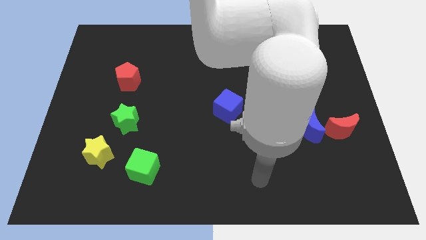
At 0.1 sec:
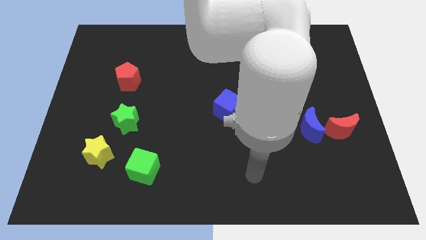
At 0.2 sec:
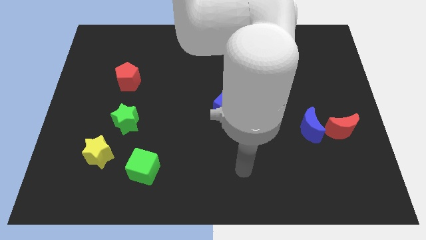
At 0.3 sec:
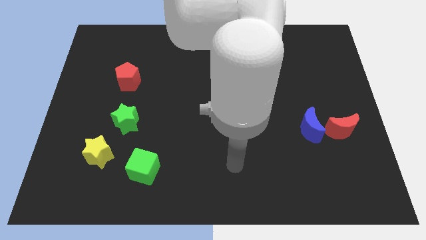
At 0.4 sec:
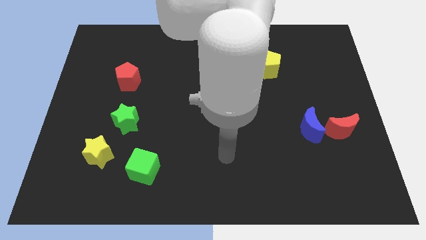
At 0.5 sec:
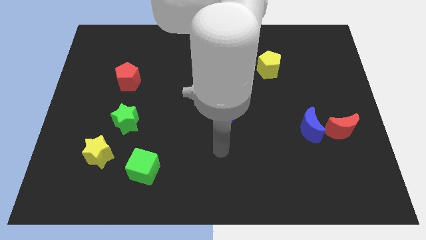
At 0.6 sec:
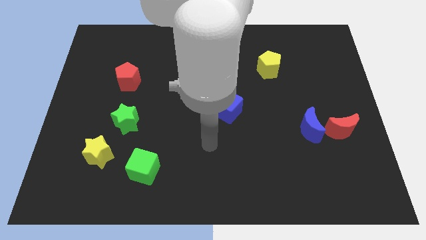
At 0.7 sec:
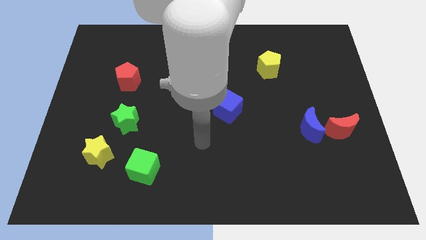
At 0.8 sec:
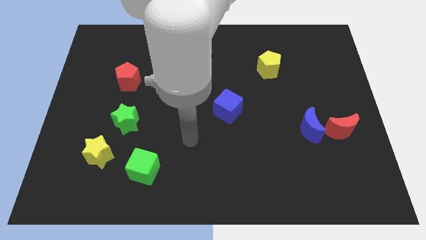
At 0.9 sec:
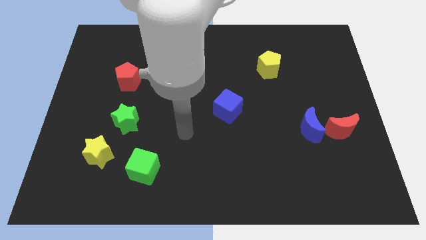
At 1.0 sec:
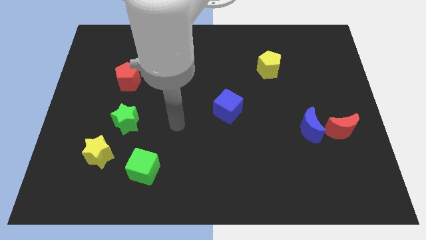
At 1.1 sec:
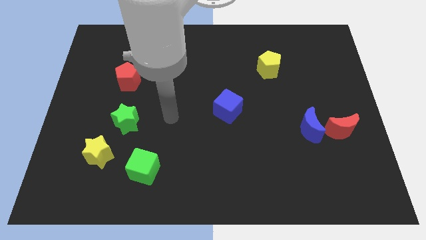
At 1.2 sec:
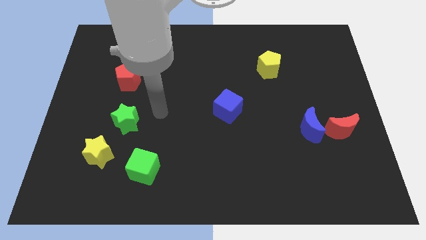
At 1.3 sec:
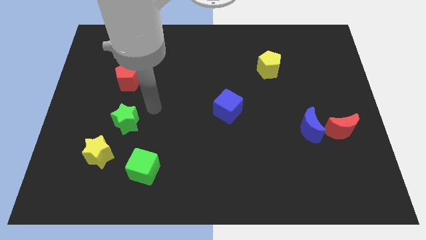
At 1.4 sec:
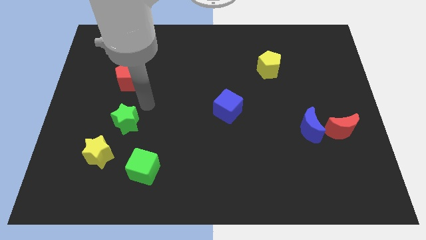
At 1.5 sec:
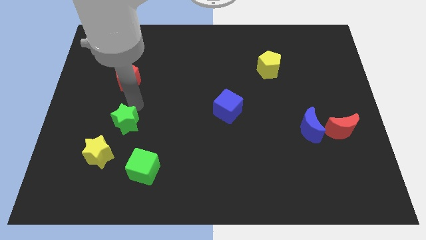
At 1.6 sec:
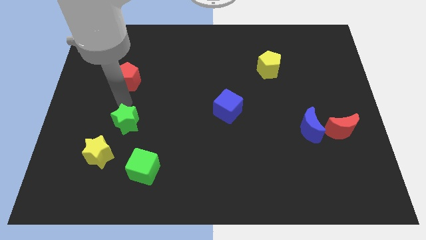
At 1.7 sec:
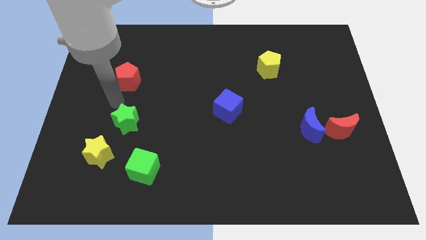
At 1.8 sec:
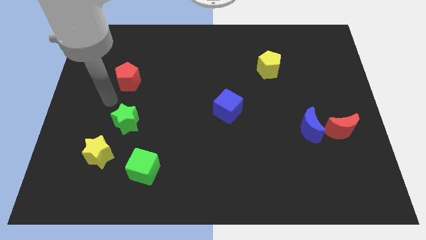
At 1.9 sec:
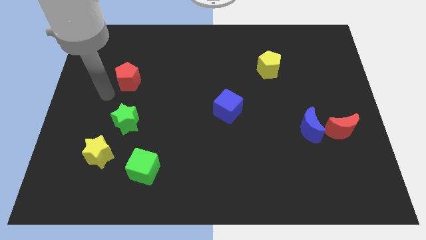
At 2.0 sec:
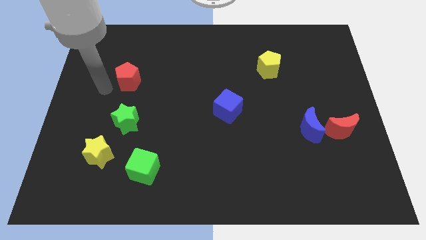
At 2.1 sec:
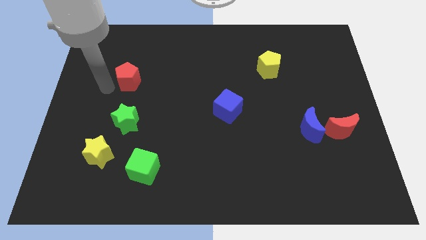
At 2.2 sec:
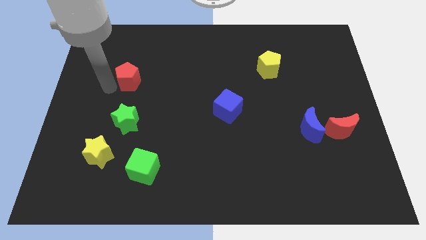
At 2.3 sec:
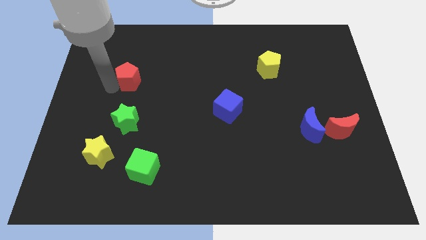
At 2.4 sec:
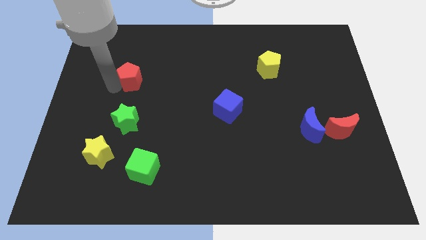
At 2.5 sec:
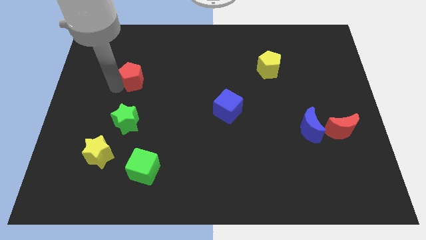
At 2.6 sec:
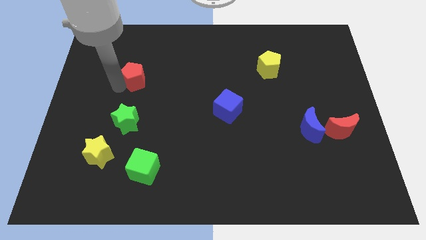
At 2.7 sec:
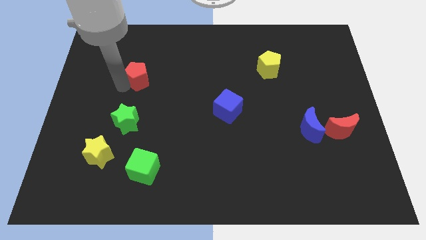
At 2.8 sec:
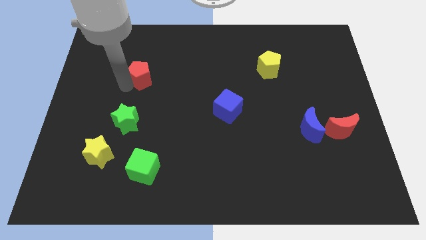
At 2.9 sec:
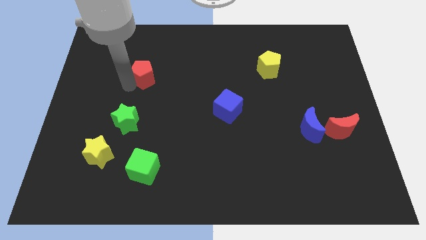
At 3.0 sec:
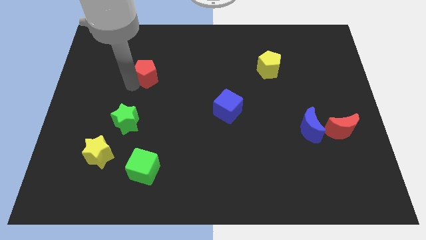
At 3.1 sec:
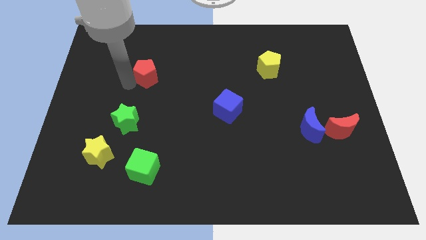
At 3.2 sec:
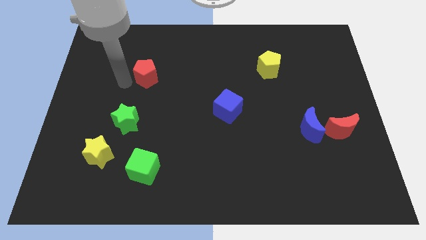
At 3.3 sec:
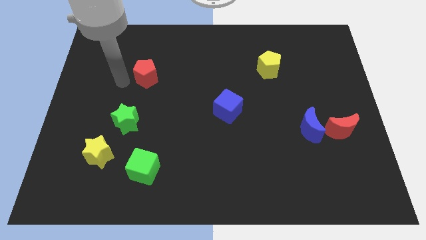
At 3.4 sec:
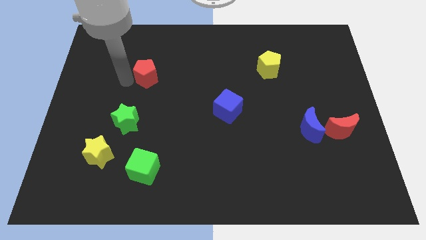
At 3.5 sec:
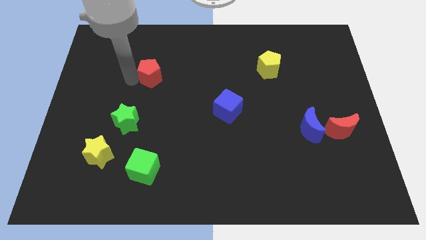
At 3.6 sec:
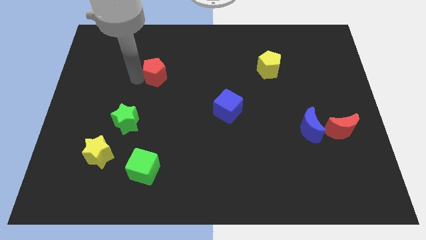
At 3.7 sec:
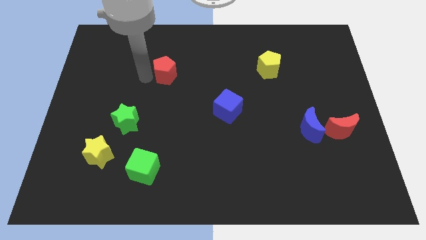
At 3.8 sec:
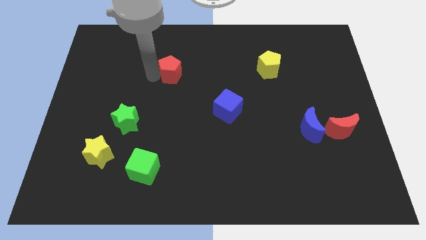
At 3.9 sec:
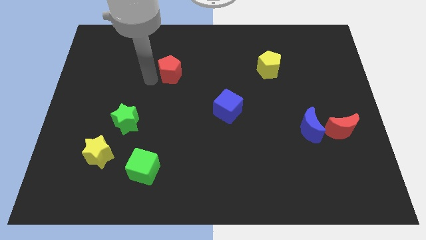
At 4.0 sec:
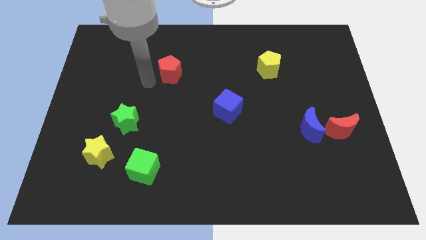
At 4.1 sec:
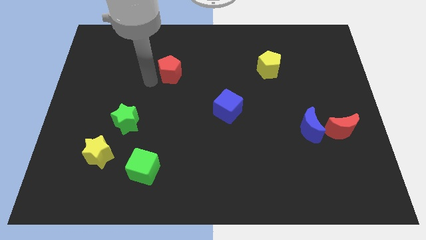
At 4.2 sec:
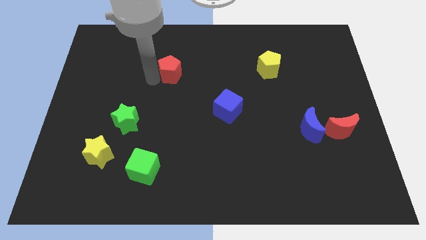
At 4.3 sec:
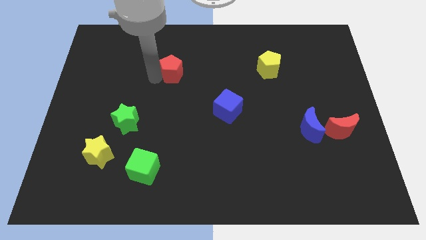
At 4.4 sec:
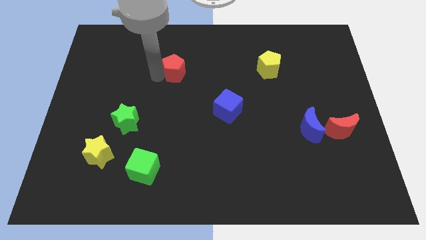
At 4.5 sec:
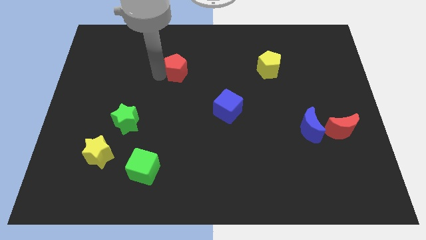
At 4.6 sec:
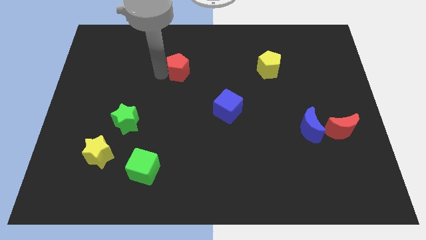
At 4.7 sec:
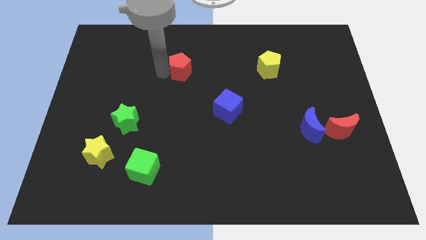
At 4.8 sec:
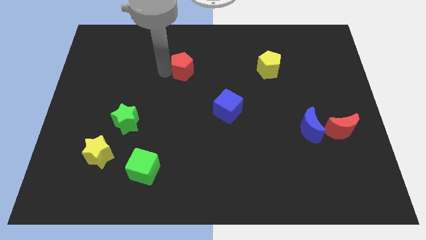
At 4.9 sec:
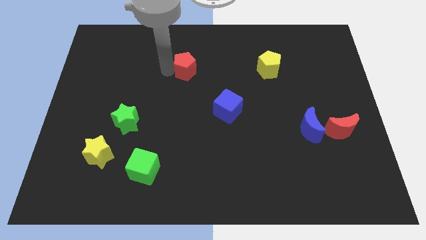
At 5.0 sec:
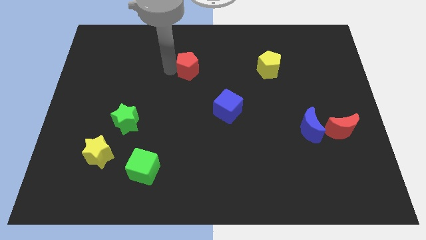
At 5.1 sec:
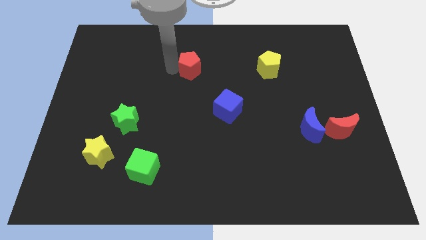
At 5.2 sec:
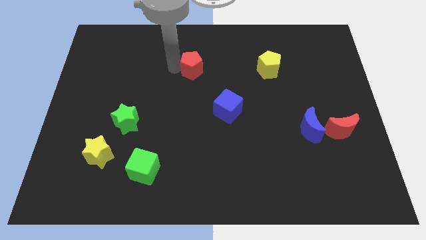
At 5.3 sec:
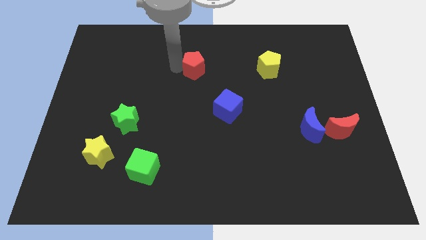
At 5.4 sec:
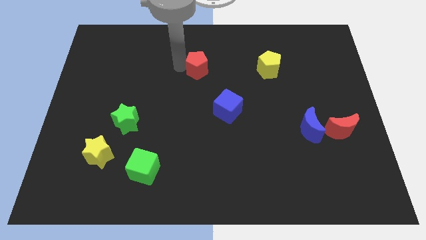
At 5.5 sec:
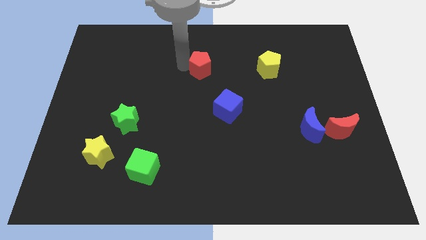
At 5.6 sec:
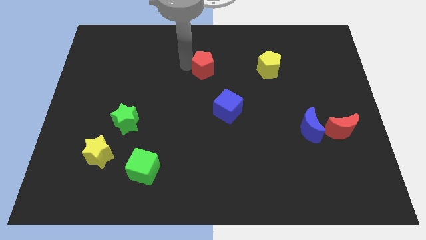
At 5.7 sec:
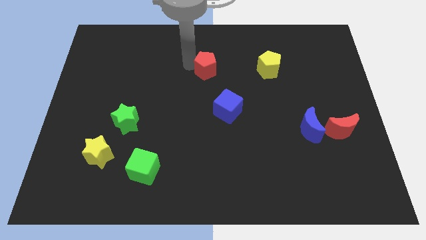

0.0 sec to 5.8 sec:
move the red pentagon left of the yellow pentagon

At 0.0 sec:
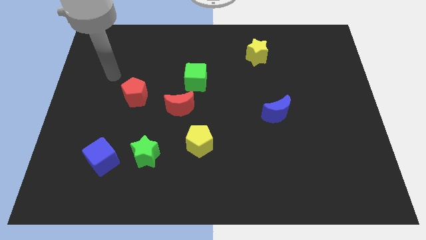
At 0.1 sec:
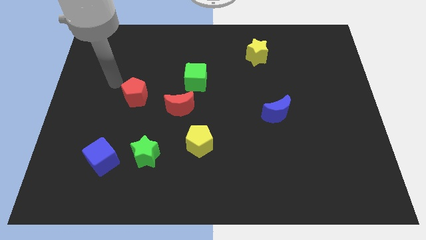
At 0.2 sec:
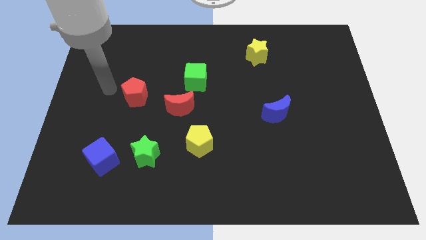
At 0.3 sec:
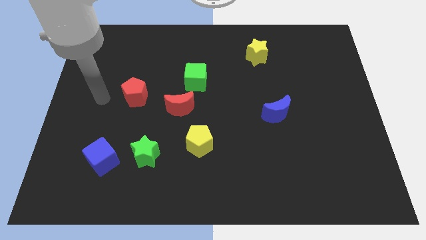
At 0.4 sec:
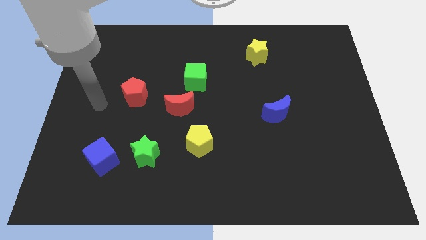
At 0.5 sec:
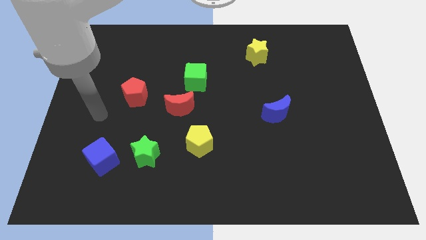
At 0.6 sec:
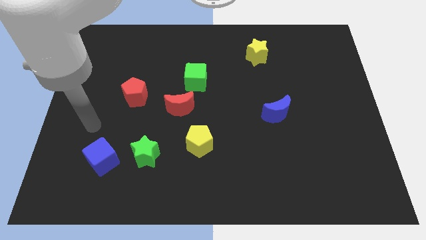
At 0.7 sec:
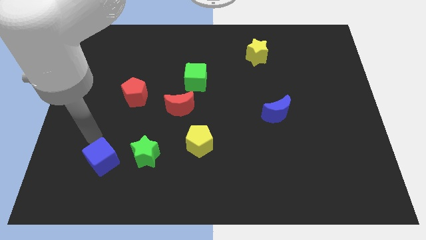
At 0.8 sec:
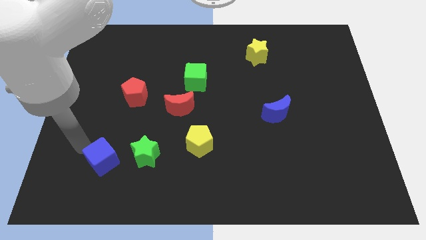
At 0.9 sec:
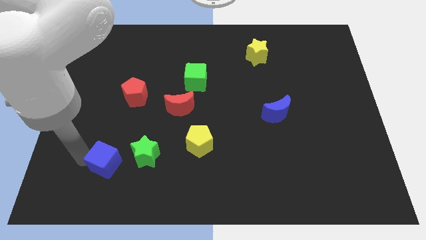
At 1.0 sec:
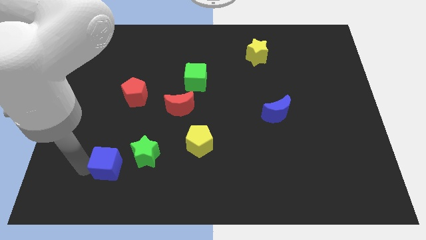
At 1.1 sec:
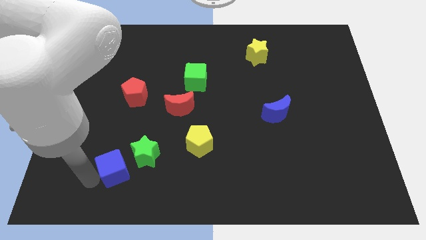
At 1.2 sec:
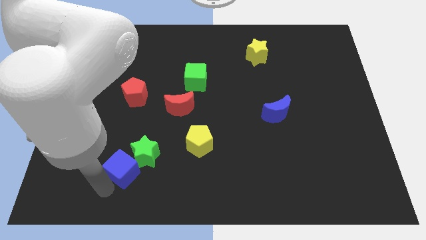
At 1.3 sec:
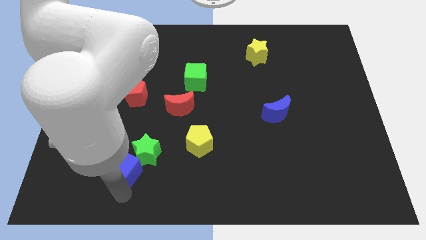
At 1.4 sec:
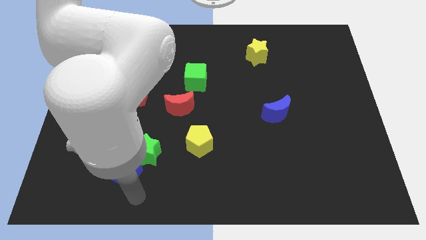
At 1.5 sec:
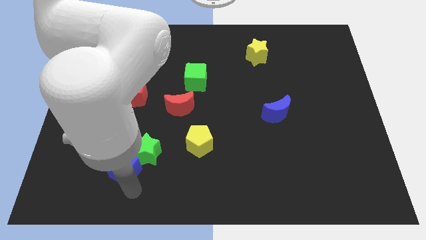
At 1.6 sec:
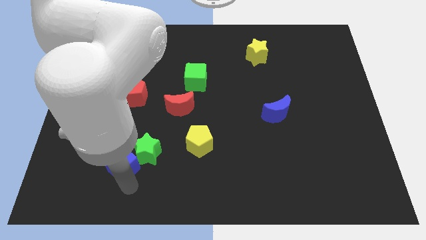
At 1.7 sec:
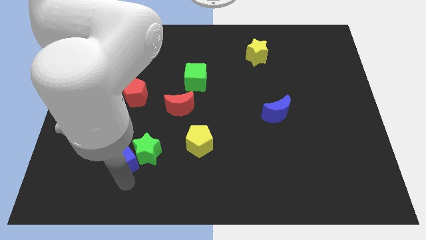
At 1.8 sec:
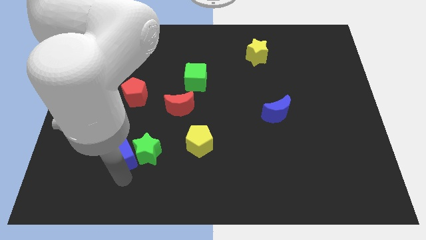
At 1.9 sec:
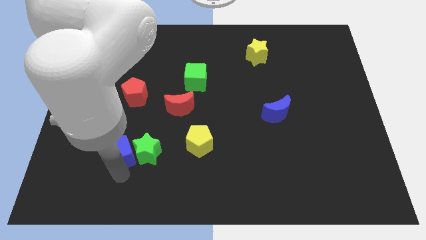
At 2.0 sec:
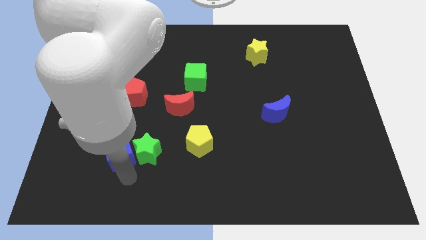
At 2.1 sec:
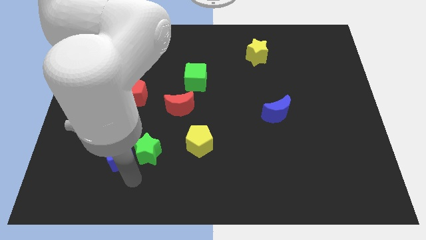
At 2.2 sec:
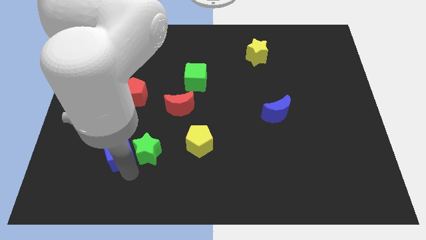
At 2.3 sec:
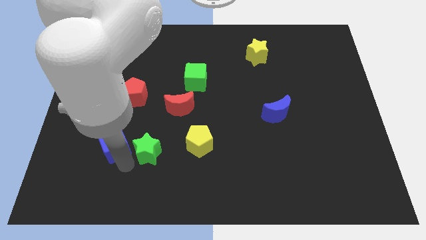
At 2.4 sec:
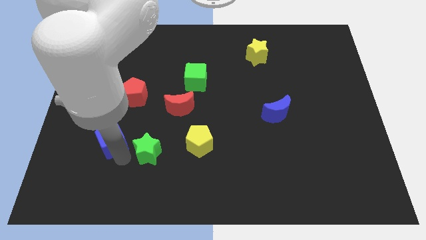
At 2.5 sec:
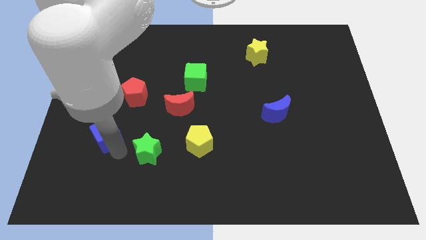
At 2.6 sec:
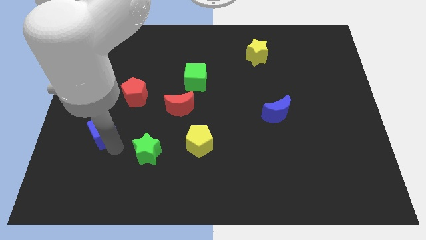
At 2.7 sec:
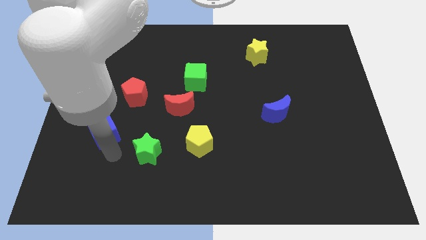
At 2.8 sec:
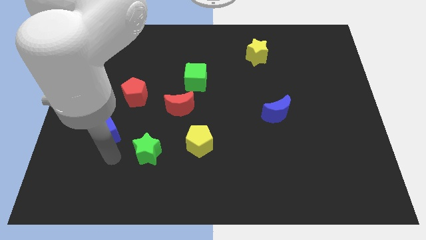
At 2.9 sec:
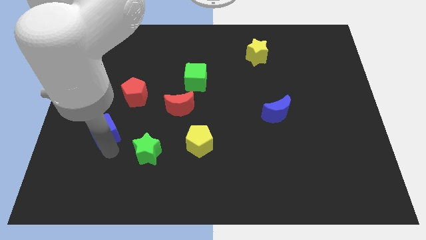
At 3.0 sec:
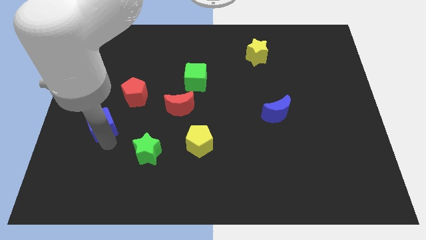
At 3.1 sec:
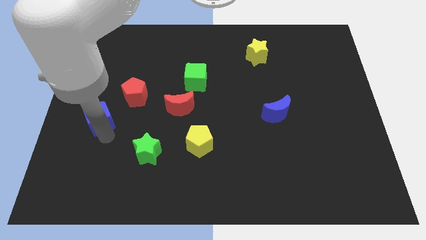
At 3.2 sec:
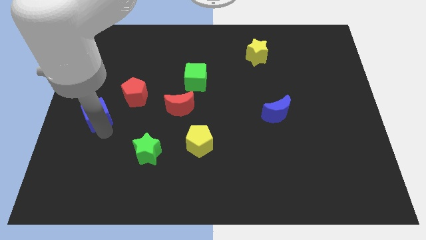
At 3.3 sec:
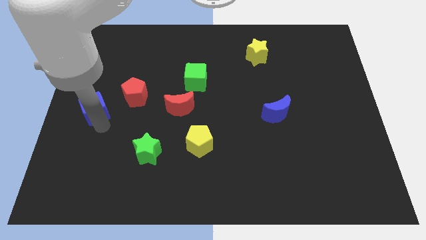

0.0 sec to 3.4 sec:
slide the blue cube to the left of the red pentagon
